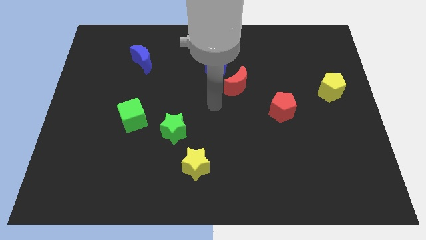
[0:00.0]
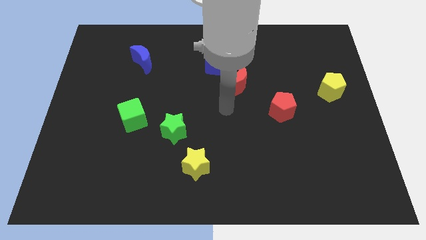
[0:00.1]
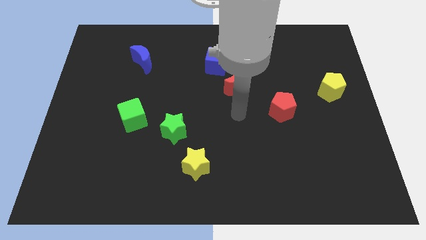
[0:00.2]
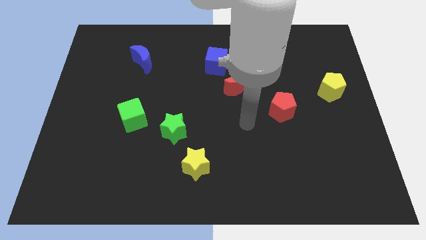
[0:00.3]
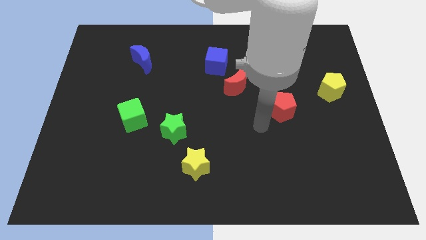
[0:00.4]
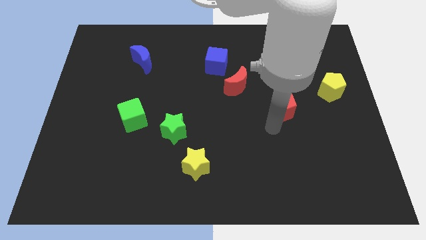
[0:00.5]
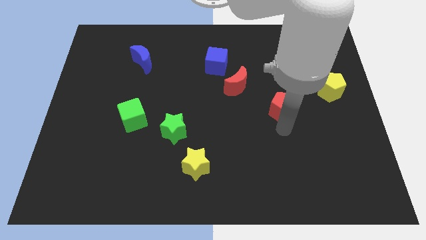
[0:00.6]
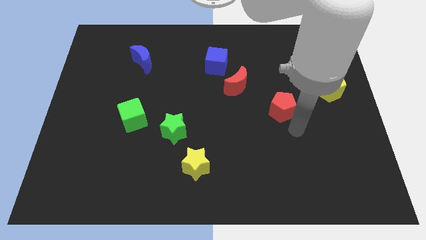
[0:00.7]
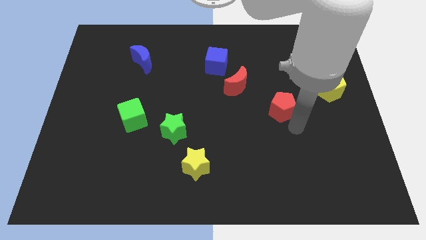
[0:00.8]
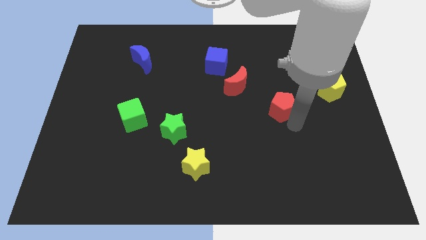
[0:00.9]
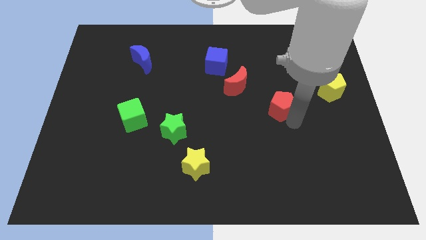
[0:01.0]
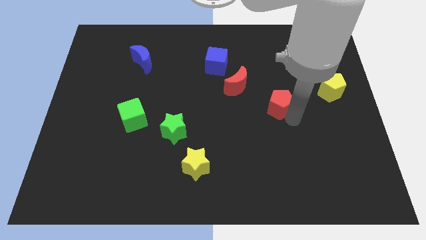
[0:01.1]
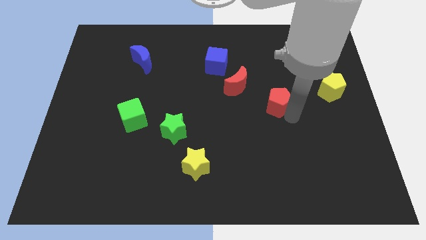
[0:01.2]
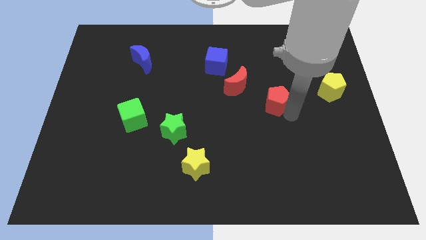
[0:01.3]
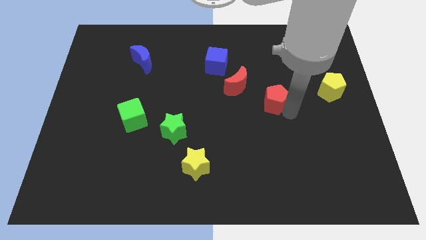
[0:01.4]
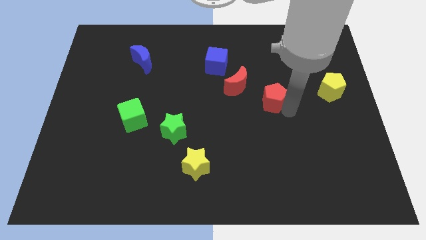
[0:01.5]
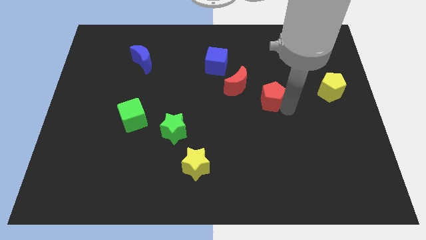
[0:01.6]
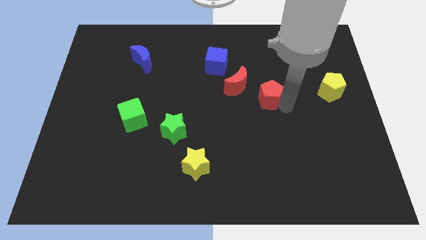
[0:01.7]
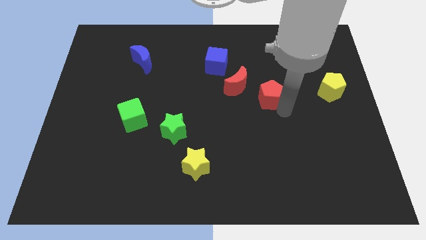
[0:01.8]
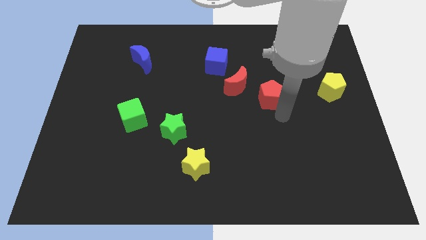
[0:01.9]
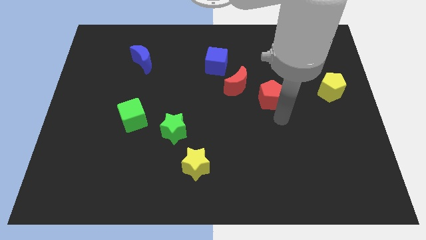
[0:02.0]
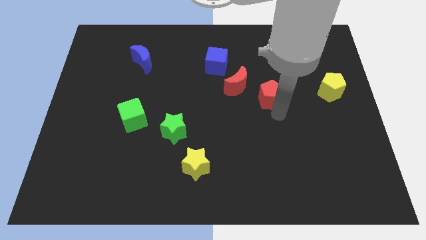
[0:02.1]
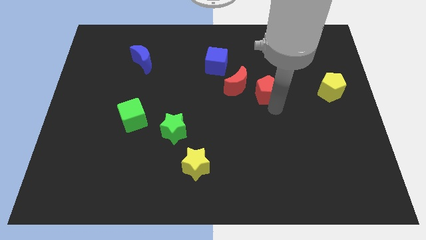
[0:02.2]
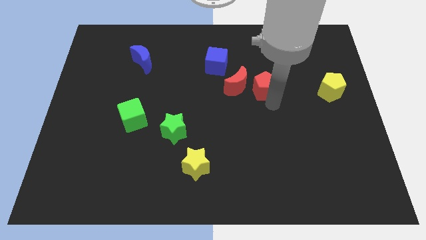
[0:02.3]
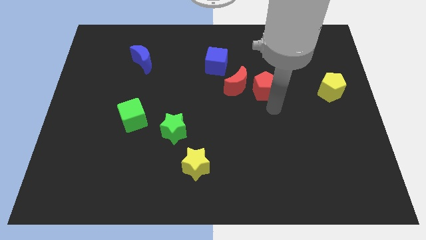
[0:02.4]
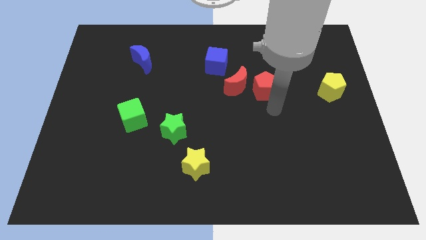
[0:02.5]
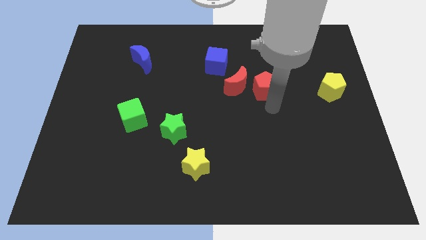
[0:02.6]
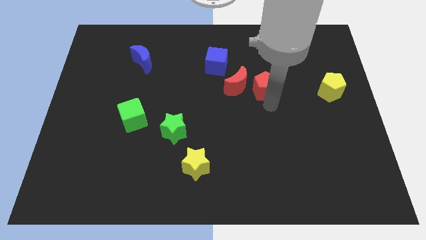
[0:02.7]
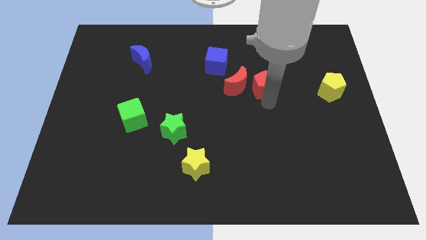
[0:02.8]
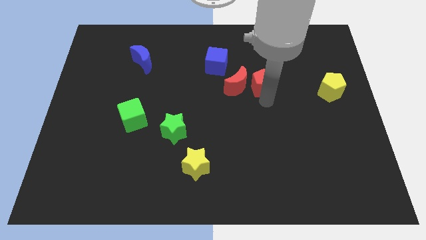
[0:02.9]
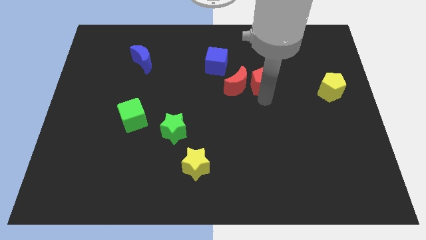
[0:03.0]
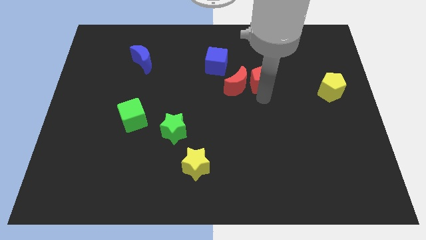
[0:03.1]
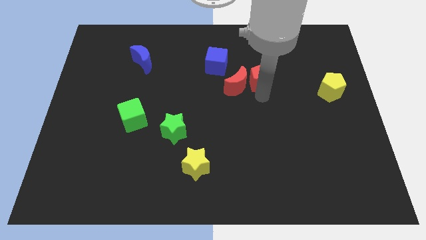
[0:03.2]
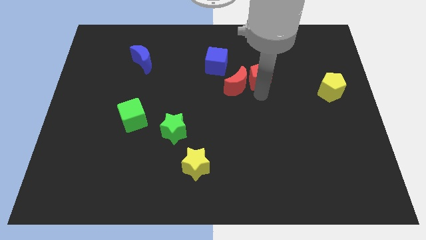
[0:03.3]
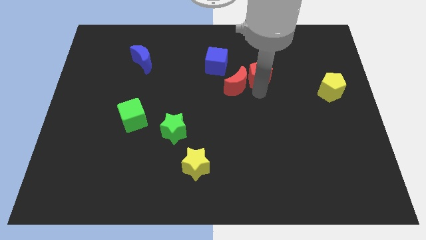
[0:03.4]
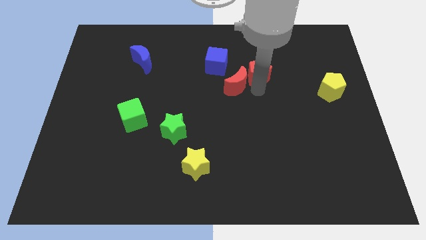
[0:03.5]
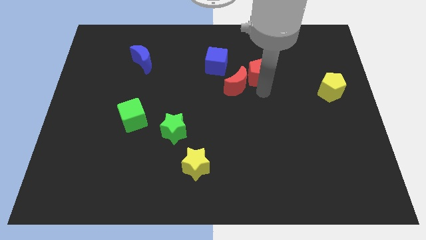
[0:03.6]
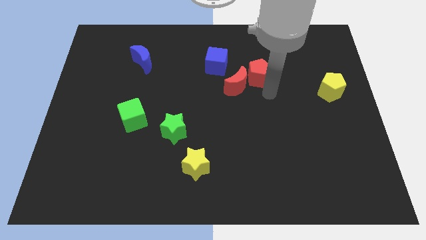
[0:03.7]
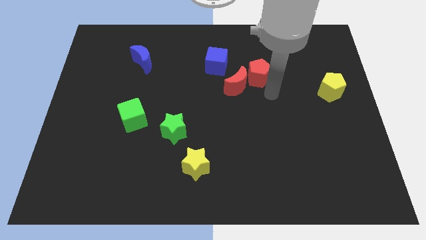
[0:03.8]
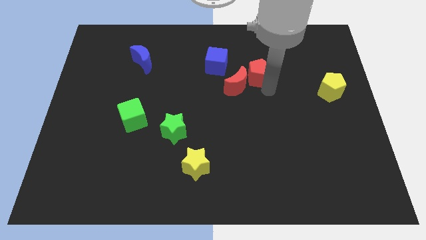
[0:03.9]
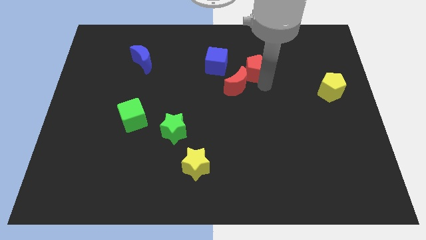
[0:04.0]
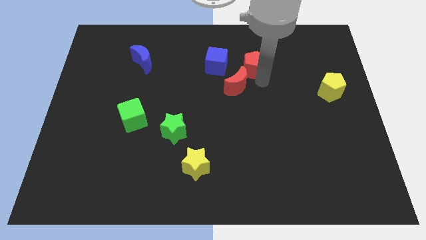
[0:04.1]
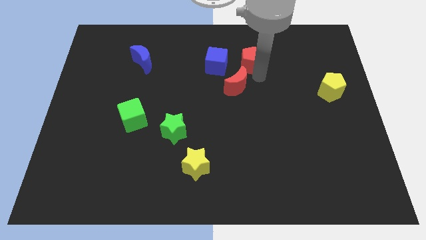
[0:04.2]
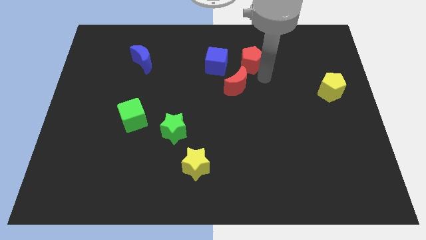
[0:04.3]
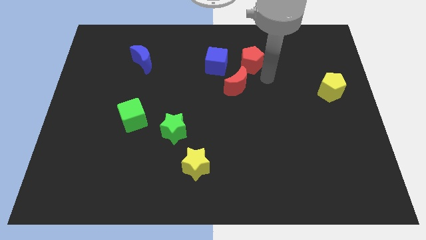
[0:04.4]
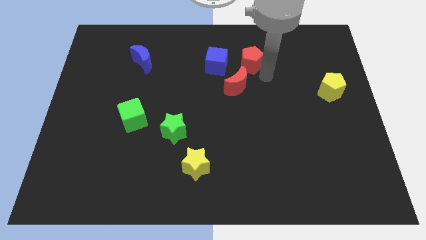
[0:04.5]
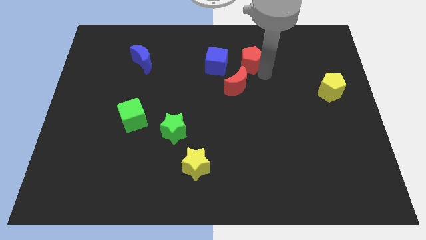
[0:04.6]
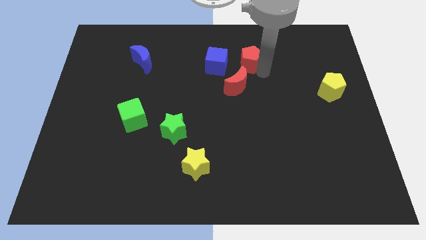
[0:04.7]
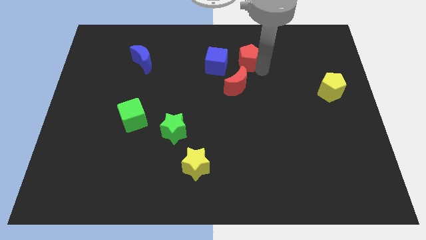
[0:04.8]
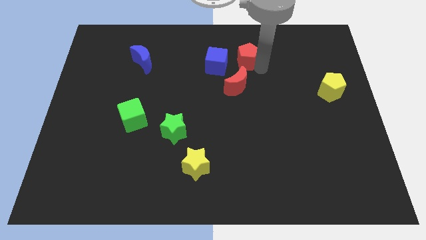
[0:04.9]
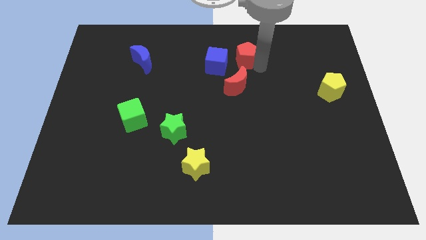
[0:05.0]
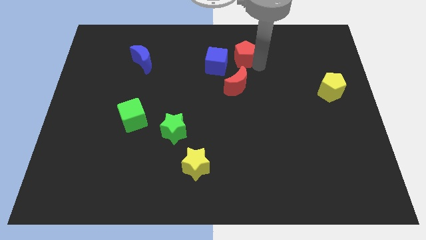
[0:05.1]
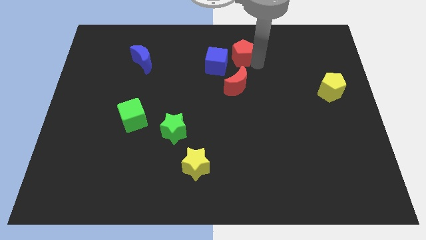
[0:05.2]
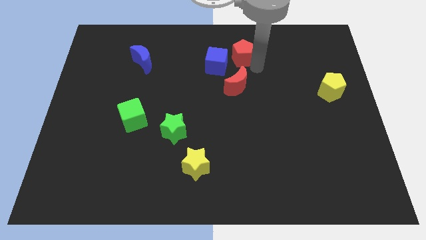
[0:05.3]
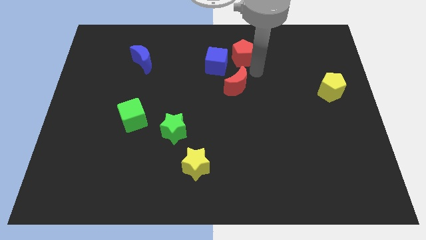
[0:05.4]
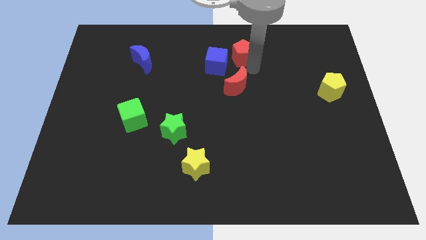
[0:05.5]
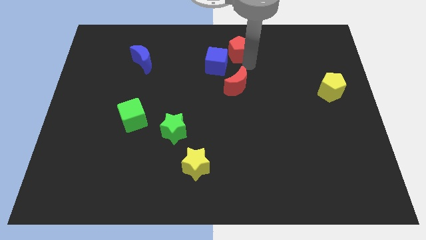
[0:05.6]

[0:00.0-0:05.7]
move the red pentagon to the towards your base
